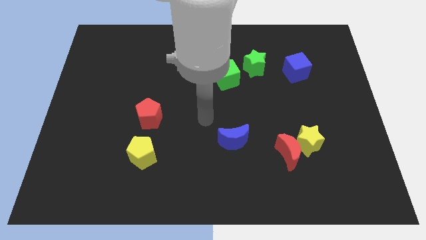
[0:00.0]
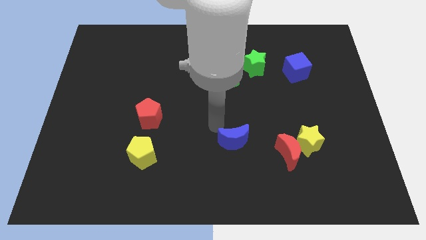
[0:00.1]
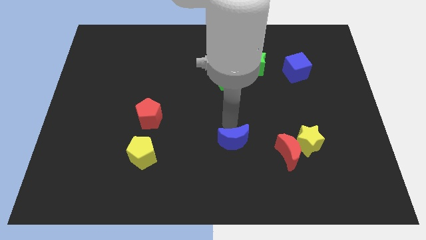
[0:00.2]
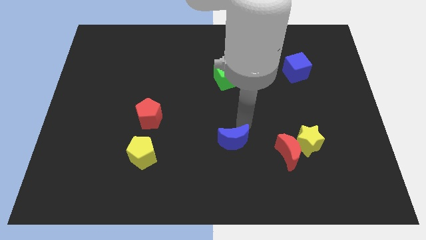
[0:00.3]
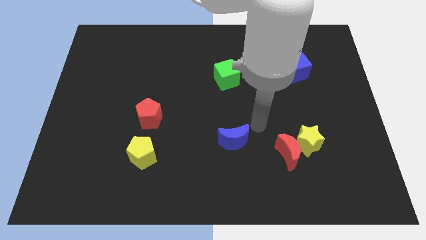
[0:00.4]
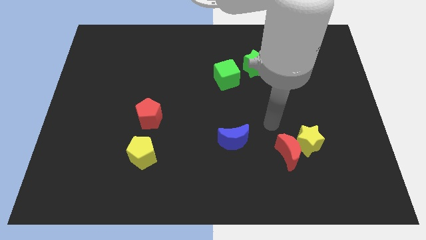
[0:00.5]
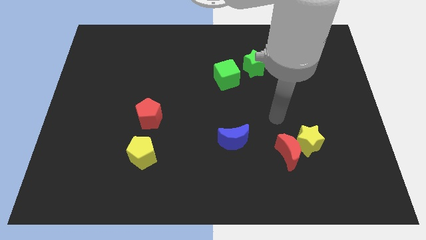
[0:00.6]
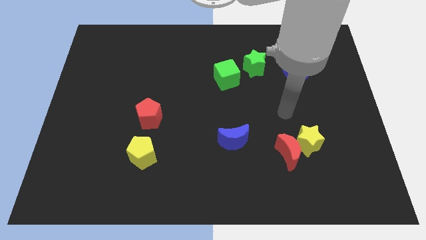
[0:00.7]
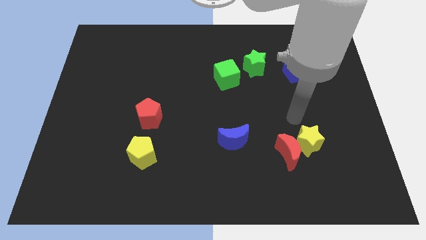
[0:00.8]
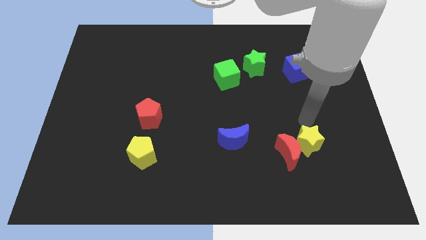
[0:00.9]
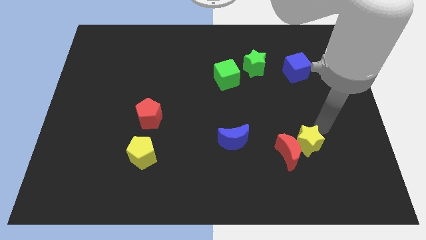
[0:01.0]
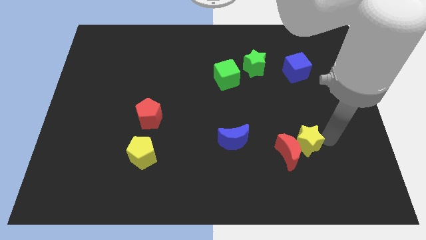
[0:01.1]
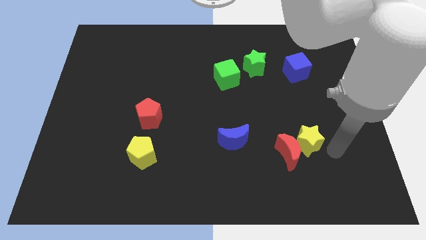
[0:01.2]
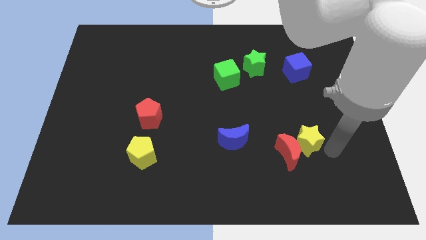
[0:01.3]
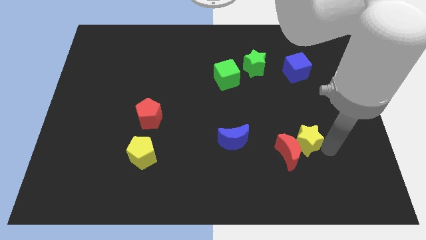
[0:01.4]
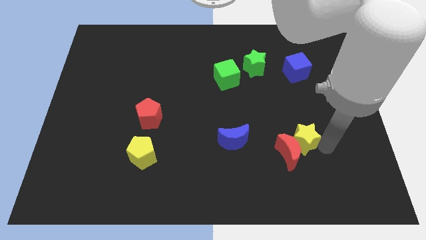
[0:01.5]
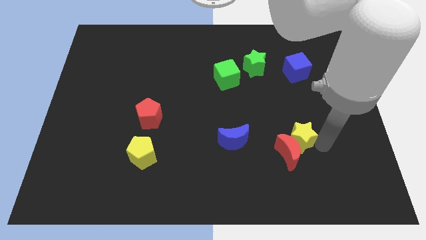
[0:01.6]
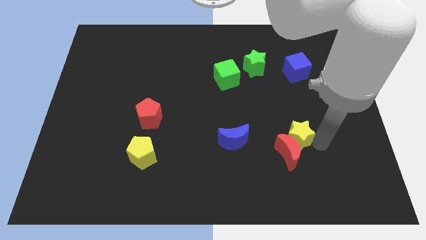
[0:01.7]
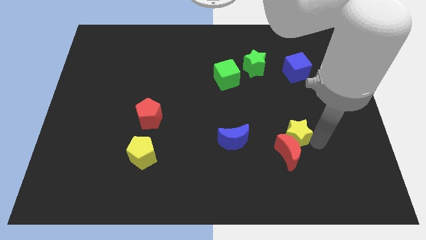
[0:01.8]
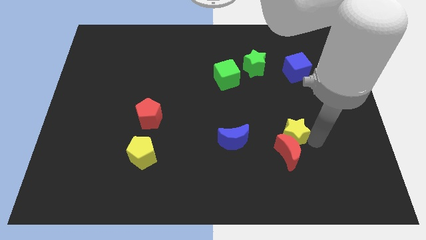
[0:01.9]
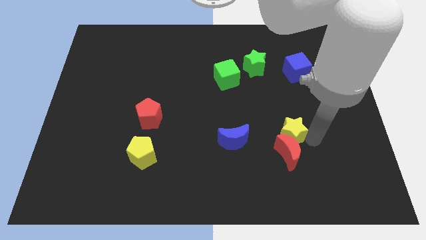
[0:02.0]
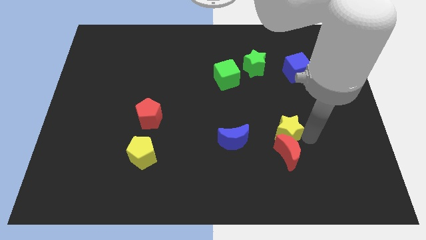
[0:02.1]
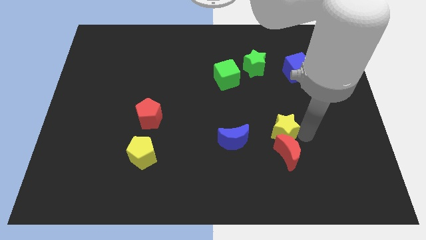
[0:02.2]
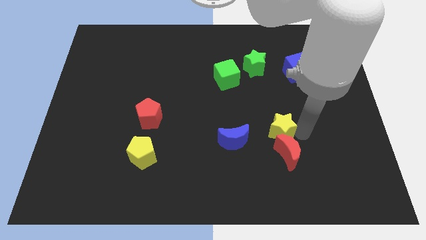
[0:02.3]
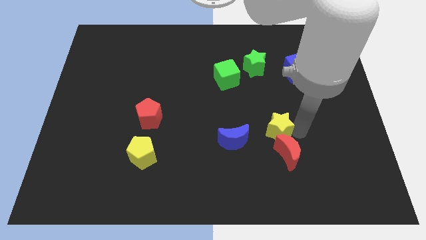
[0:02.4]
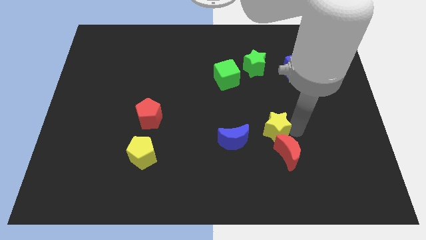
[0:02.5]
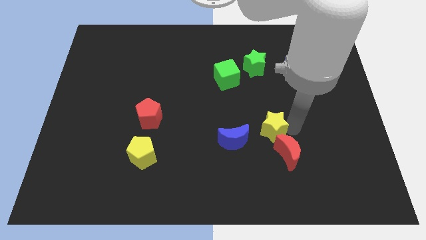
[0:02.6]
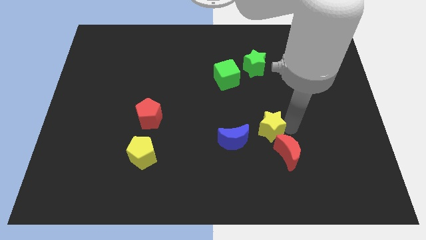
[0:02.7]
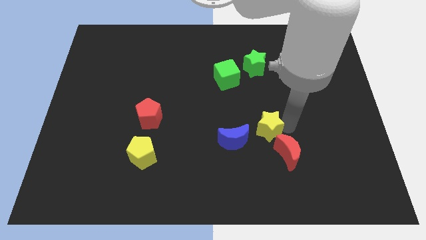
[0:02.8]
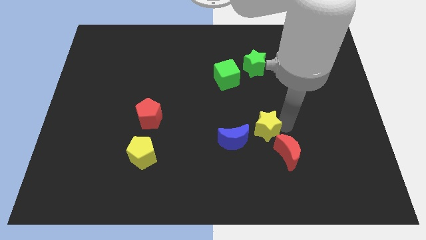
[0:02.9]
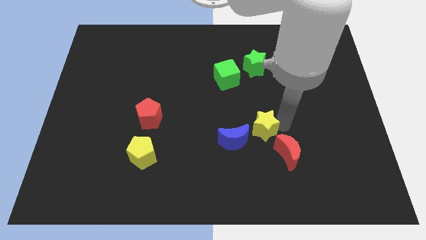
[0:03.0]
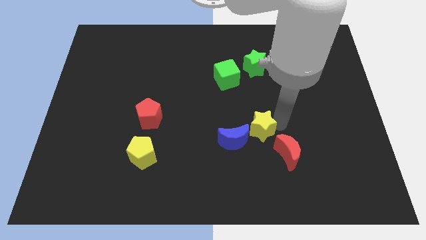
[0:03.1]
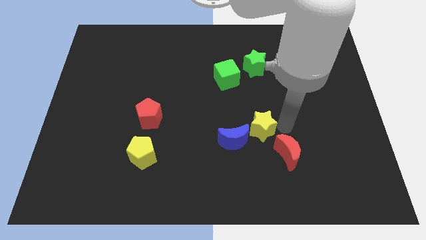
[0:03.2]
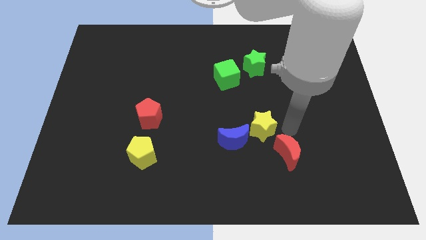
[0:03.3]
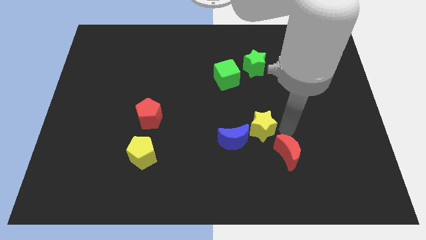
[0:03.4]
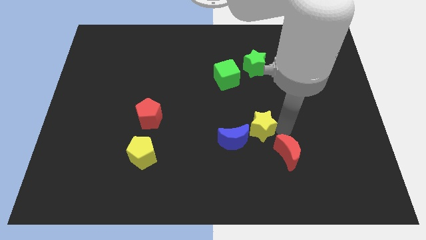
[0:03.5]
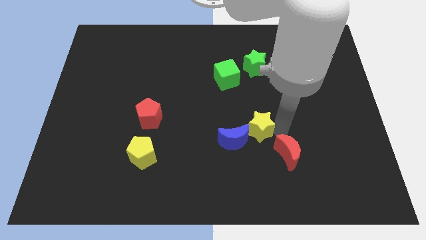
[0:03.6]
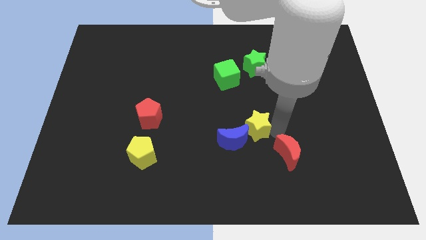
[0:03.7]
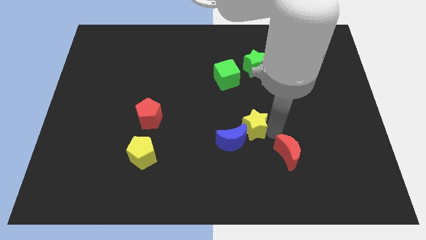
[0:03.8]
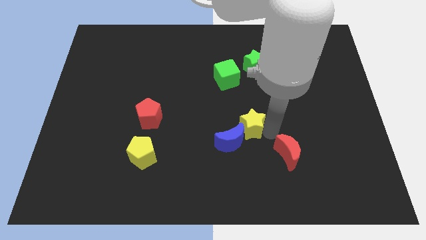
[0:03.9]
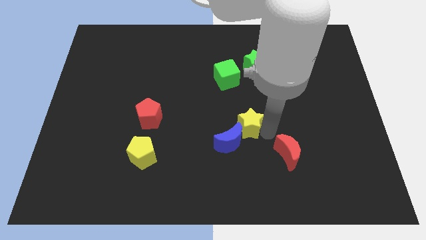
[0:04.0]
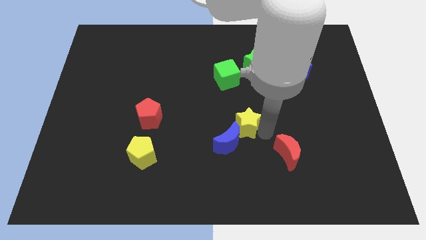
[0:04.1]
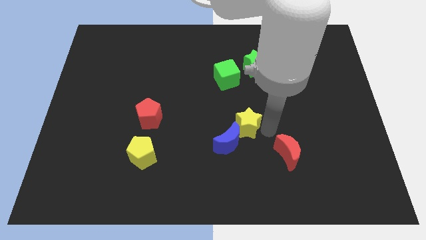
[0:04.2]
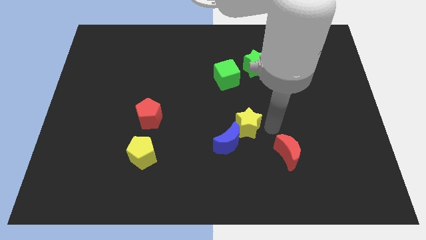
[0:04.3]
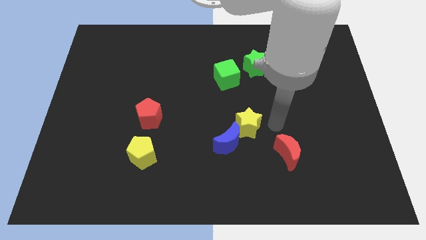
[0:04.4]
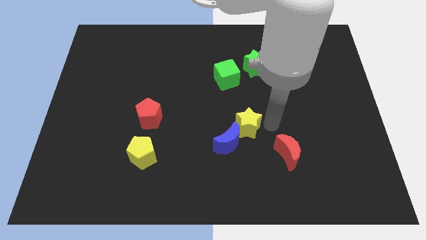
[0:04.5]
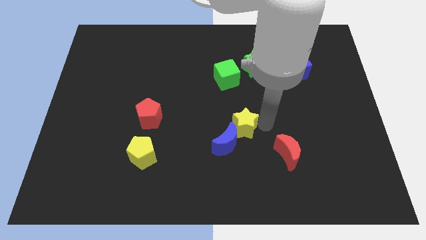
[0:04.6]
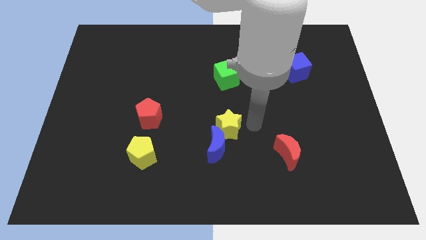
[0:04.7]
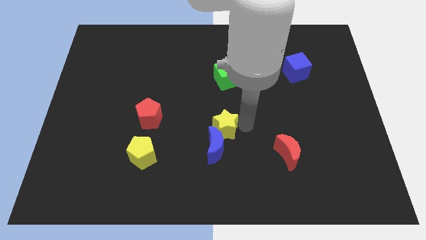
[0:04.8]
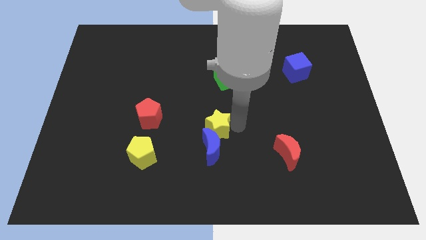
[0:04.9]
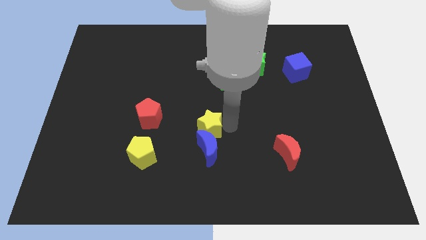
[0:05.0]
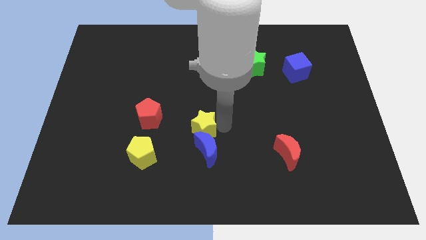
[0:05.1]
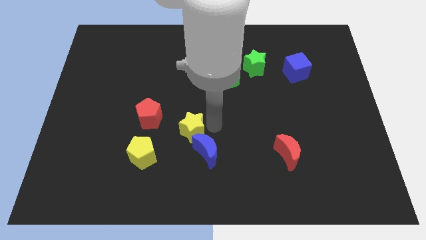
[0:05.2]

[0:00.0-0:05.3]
slide the yellow star diagonally up and to the right of the yellow pentagon

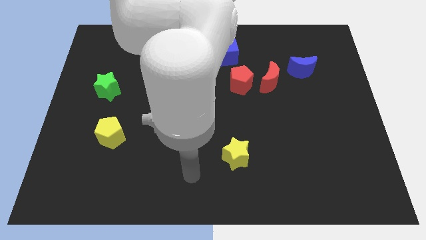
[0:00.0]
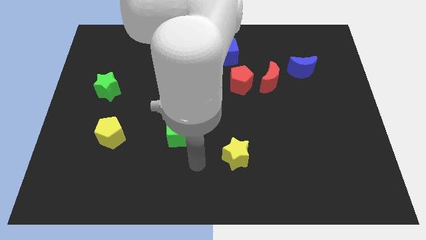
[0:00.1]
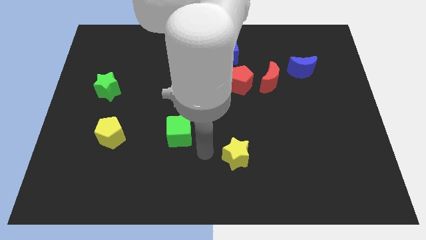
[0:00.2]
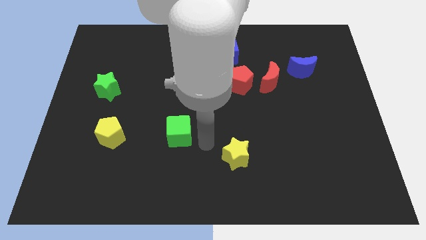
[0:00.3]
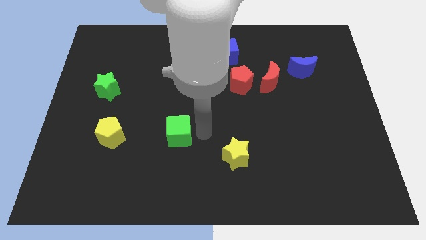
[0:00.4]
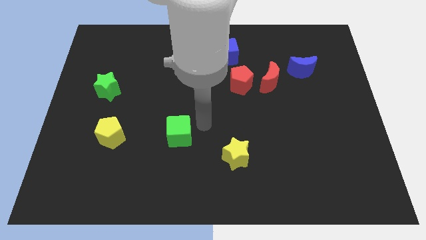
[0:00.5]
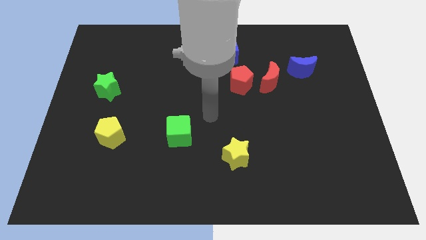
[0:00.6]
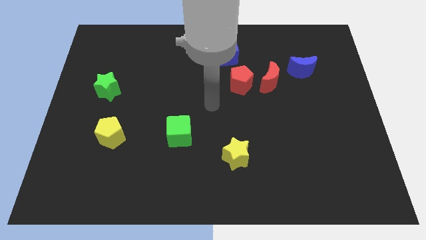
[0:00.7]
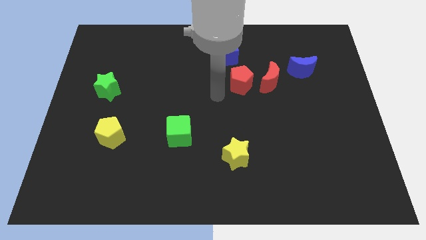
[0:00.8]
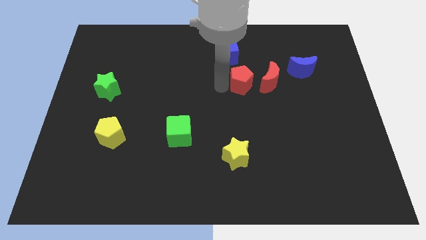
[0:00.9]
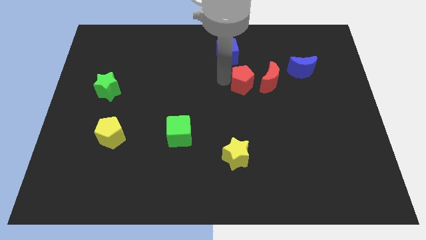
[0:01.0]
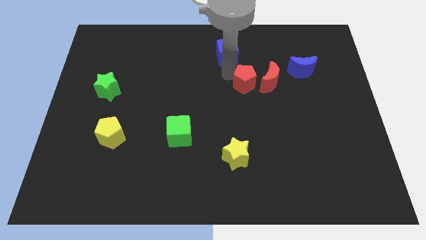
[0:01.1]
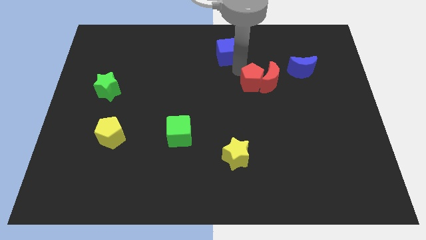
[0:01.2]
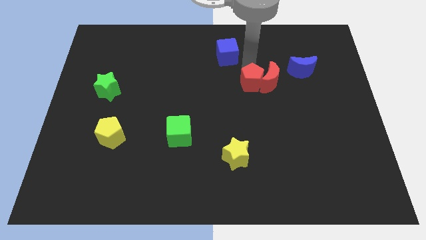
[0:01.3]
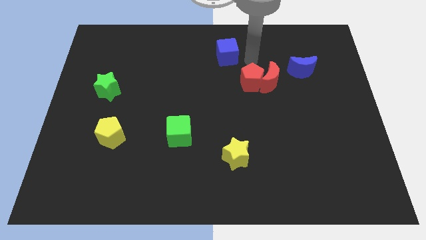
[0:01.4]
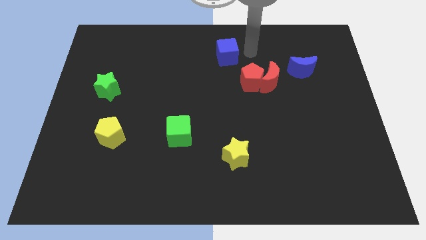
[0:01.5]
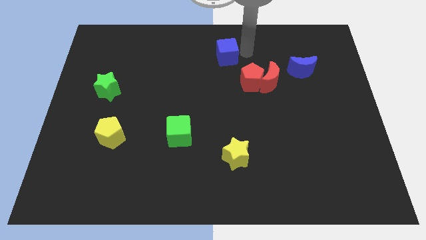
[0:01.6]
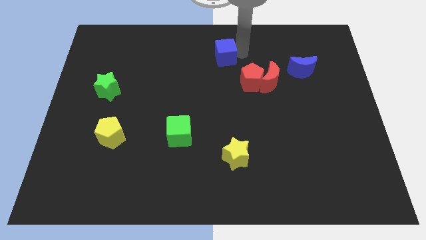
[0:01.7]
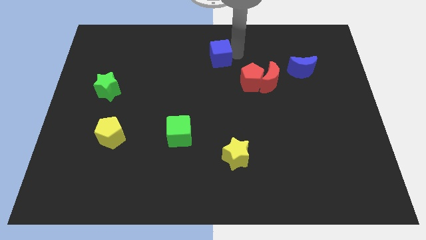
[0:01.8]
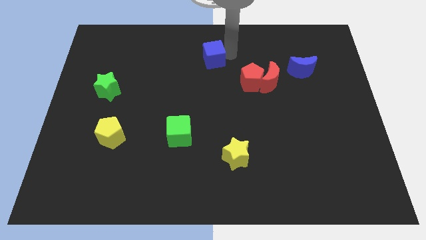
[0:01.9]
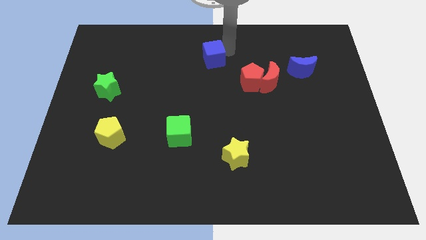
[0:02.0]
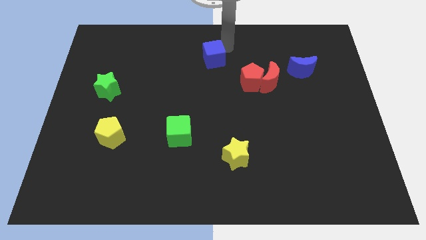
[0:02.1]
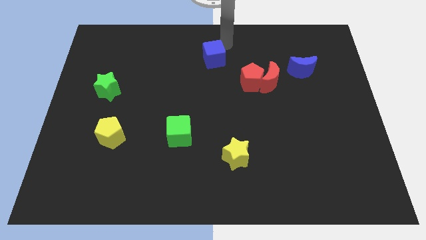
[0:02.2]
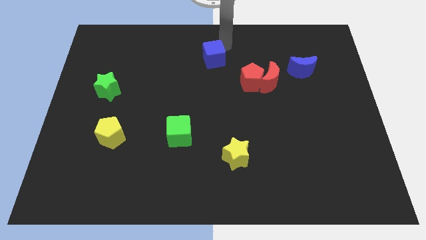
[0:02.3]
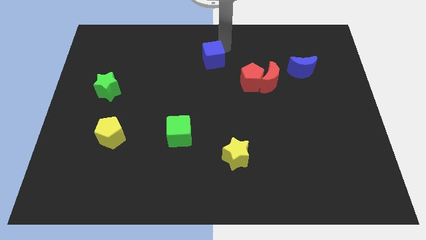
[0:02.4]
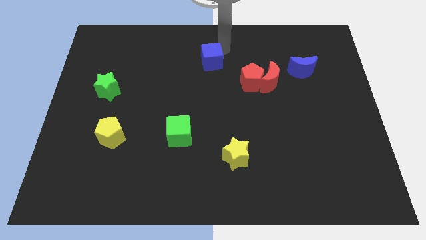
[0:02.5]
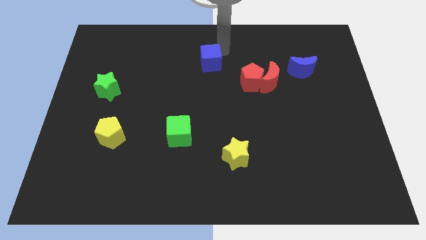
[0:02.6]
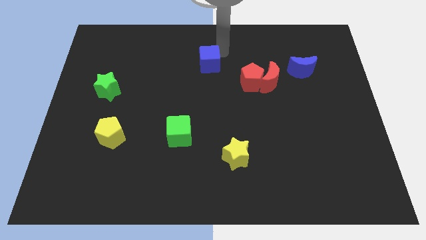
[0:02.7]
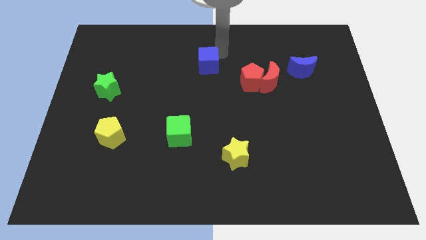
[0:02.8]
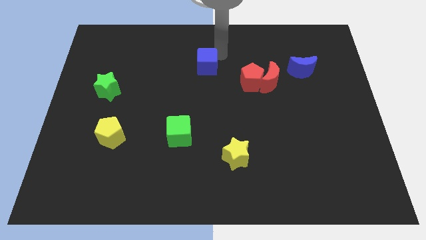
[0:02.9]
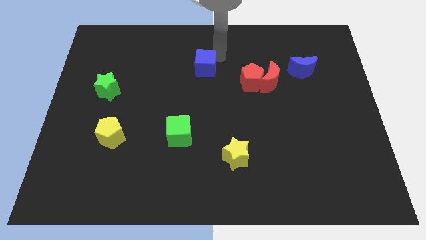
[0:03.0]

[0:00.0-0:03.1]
move the blue cube just left of the red pentagon
